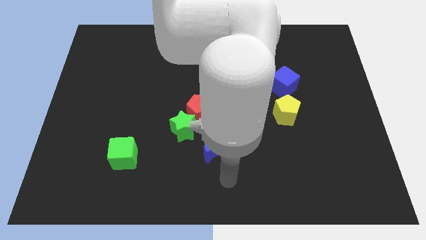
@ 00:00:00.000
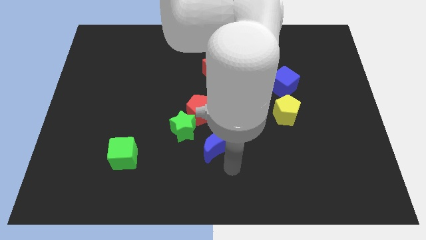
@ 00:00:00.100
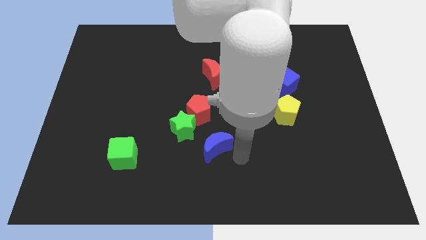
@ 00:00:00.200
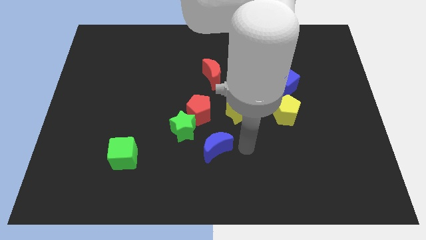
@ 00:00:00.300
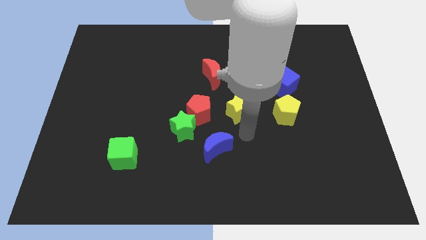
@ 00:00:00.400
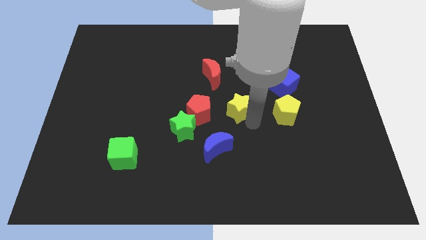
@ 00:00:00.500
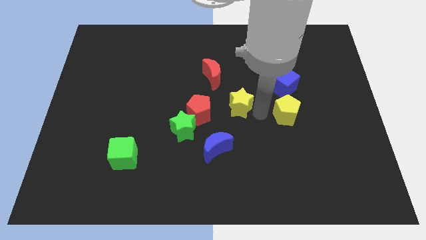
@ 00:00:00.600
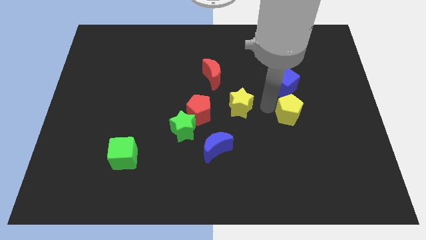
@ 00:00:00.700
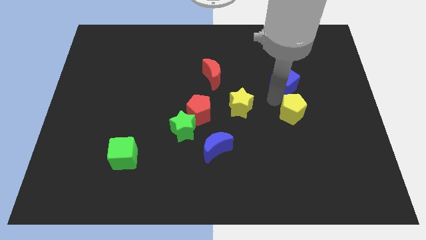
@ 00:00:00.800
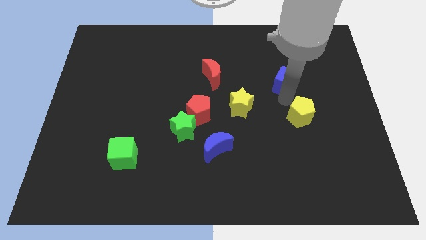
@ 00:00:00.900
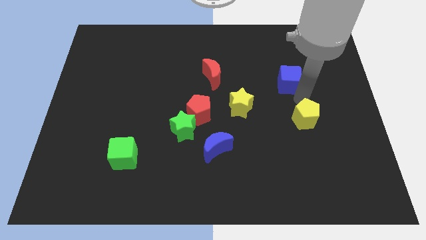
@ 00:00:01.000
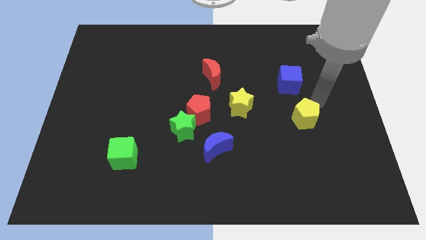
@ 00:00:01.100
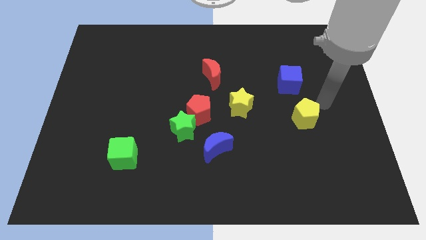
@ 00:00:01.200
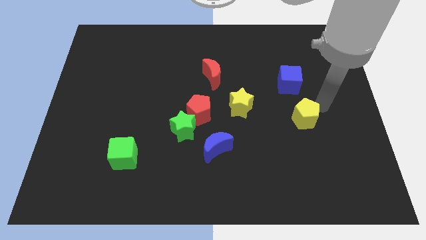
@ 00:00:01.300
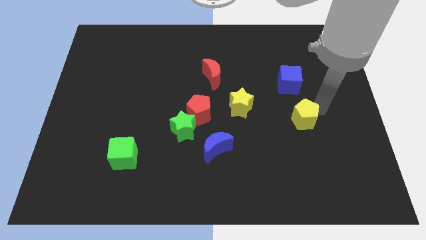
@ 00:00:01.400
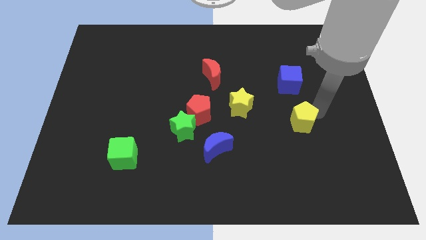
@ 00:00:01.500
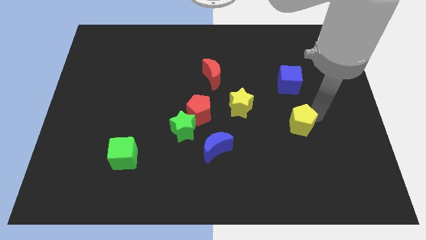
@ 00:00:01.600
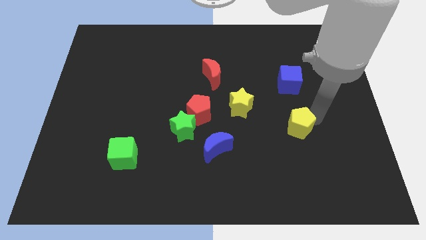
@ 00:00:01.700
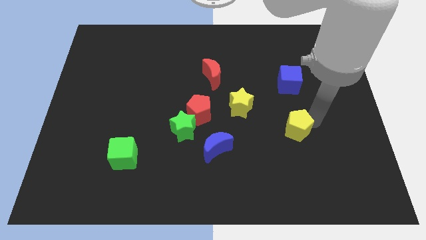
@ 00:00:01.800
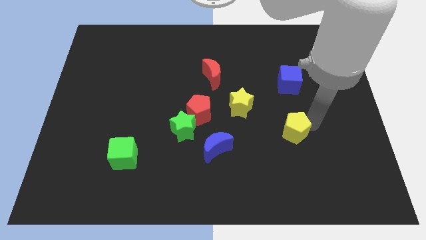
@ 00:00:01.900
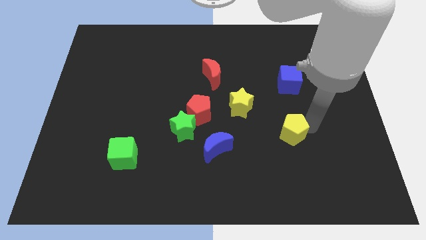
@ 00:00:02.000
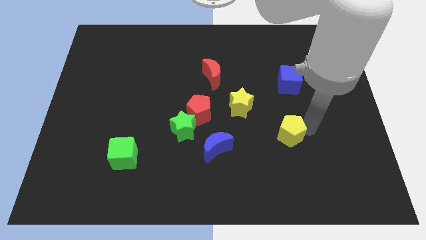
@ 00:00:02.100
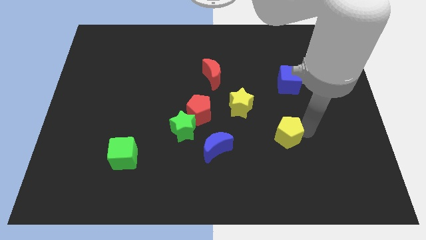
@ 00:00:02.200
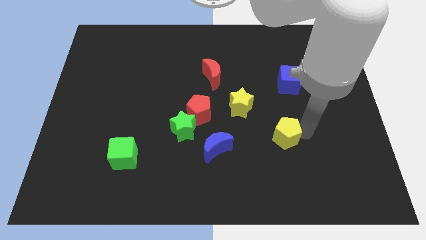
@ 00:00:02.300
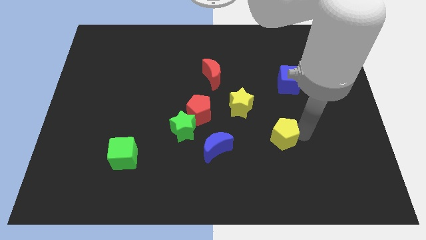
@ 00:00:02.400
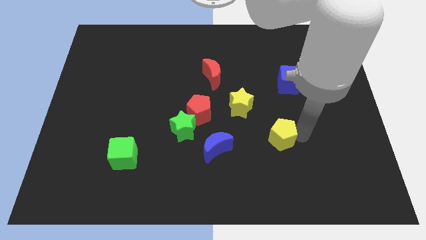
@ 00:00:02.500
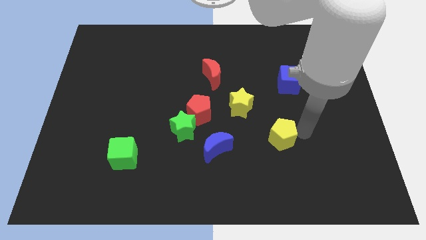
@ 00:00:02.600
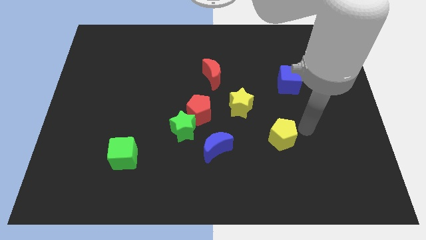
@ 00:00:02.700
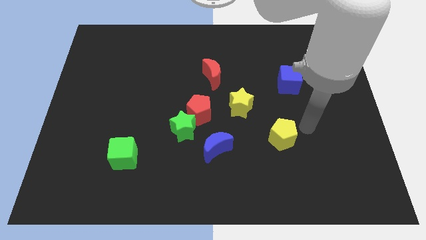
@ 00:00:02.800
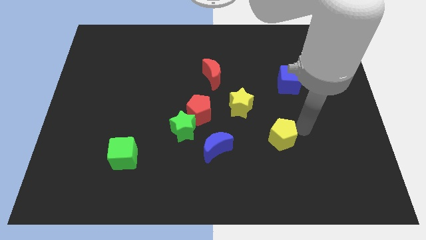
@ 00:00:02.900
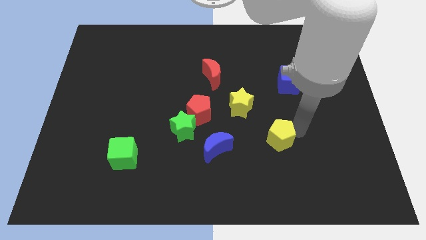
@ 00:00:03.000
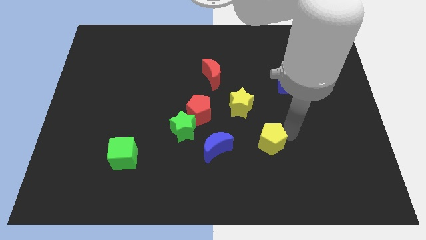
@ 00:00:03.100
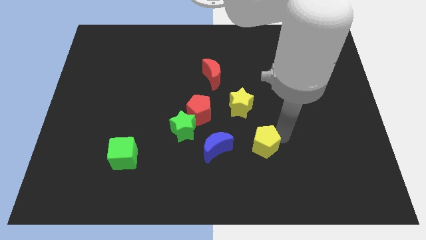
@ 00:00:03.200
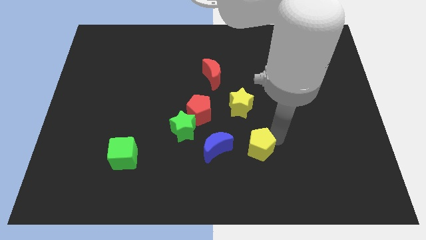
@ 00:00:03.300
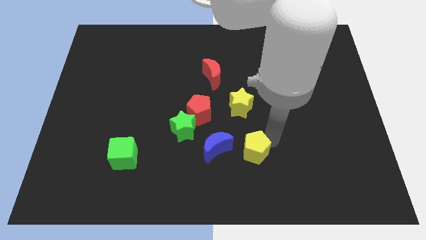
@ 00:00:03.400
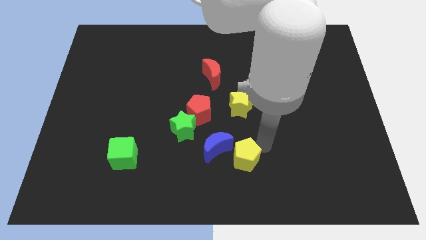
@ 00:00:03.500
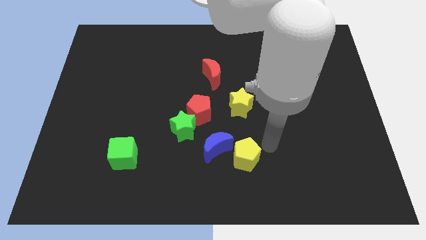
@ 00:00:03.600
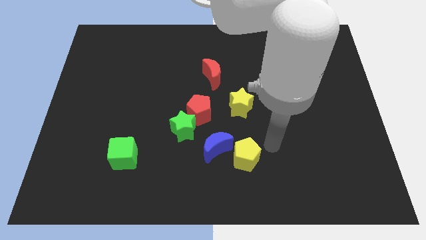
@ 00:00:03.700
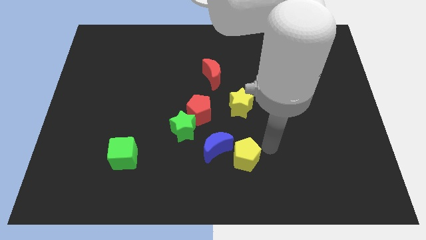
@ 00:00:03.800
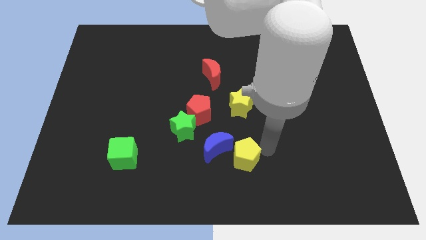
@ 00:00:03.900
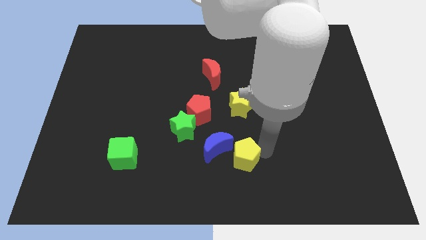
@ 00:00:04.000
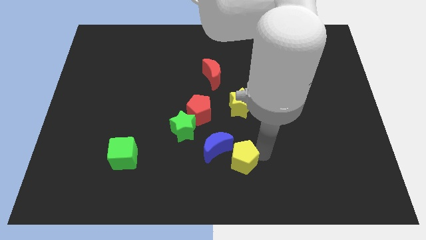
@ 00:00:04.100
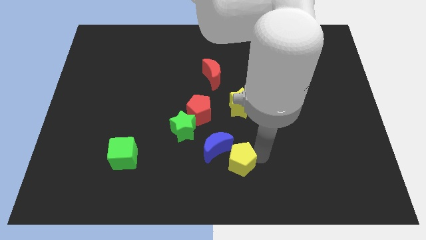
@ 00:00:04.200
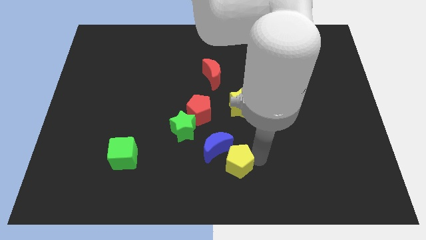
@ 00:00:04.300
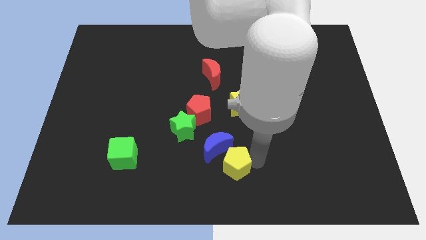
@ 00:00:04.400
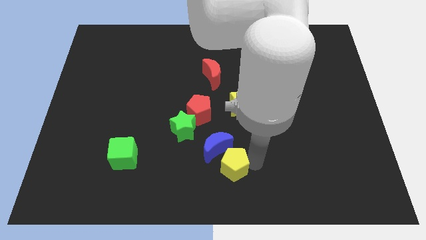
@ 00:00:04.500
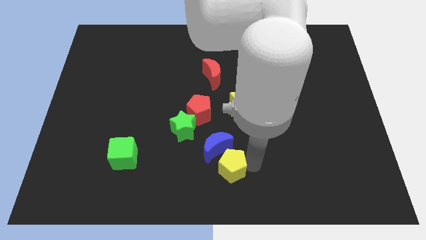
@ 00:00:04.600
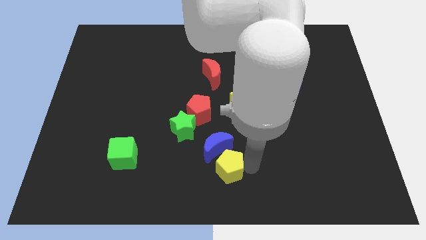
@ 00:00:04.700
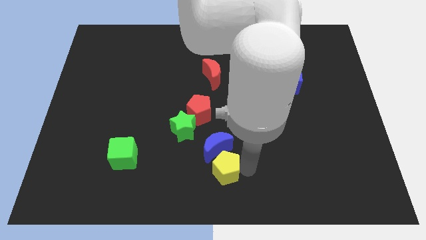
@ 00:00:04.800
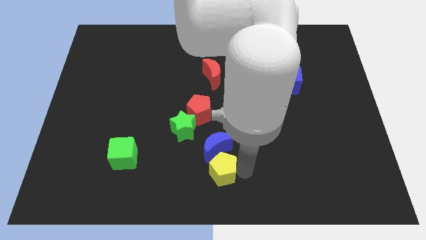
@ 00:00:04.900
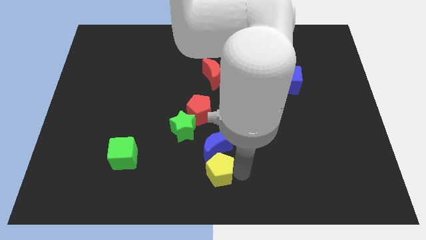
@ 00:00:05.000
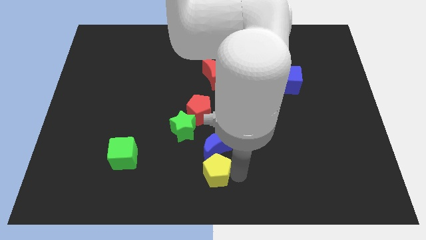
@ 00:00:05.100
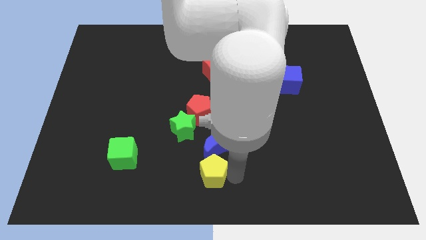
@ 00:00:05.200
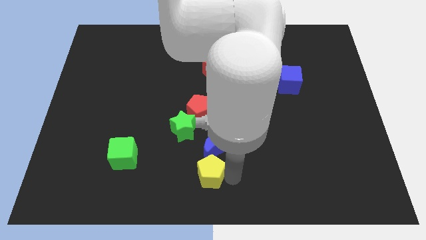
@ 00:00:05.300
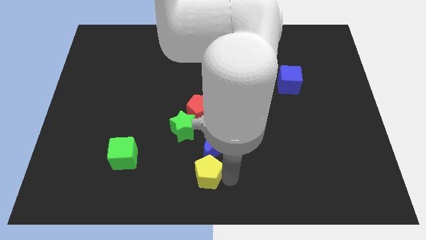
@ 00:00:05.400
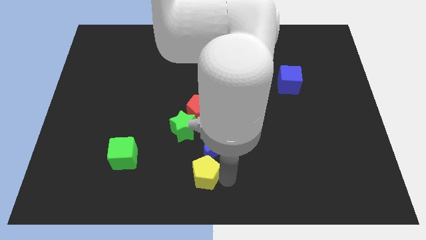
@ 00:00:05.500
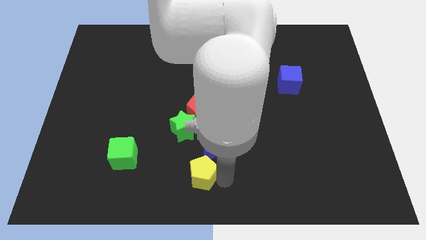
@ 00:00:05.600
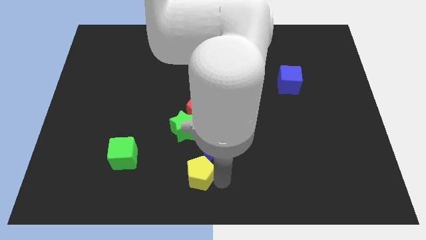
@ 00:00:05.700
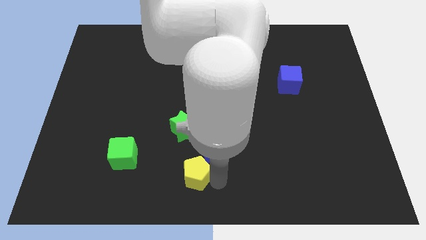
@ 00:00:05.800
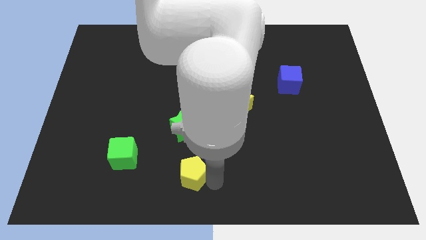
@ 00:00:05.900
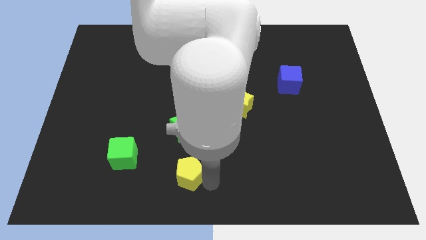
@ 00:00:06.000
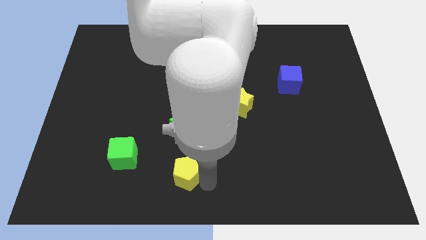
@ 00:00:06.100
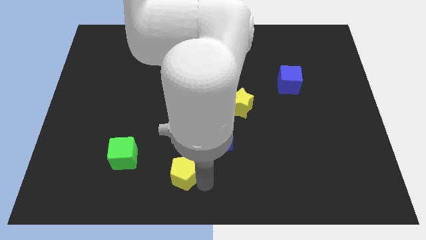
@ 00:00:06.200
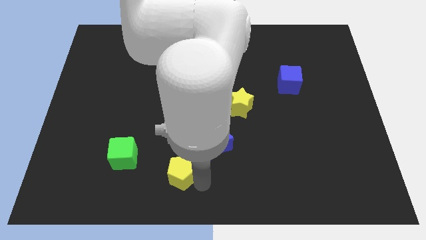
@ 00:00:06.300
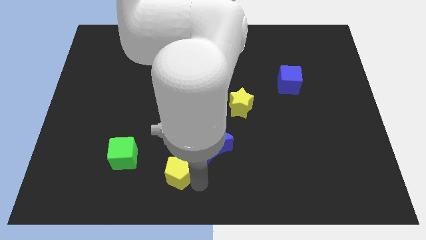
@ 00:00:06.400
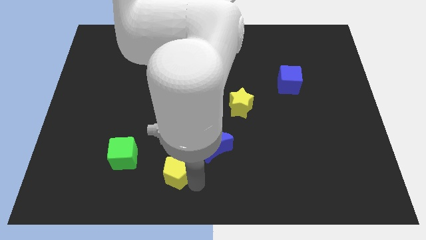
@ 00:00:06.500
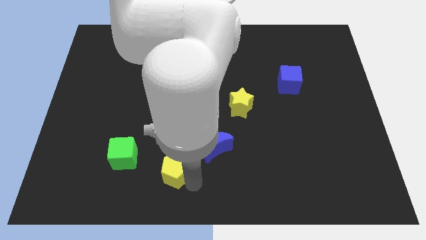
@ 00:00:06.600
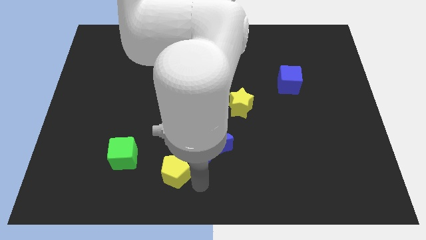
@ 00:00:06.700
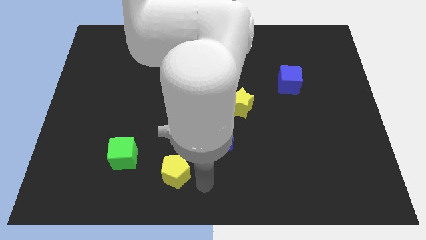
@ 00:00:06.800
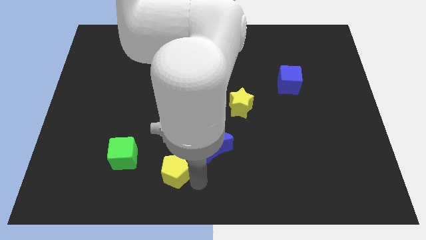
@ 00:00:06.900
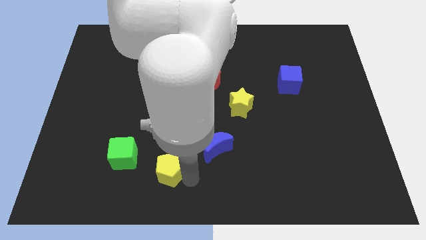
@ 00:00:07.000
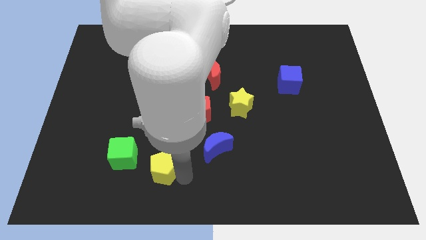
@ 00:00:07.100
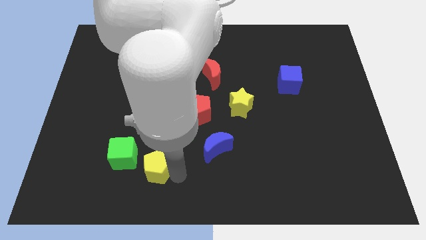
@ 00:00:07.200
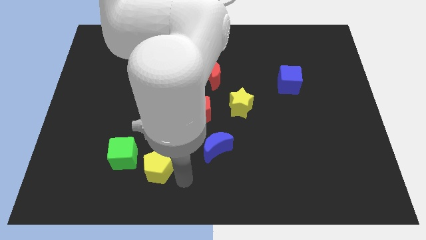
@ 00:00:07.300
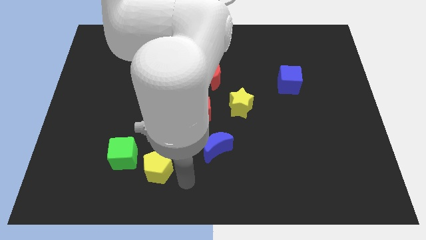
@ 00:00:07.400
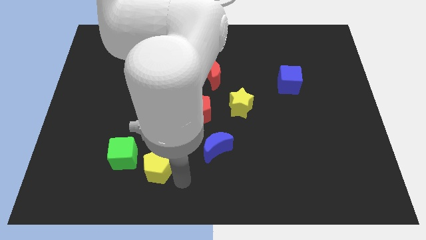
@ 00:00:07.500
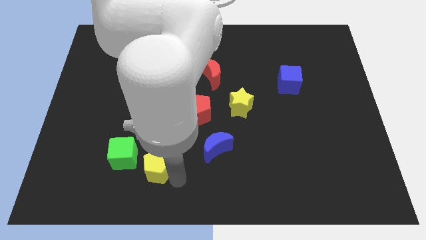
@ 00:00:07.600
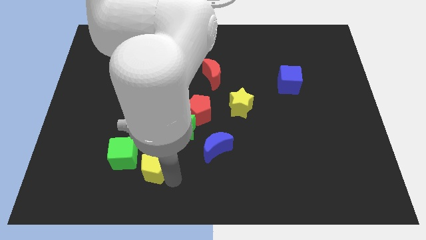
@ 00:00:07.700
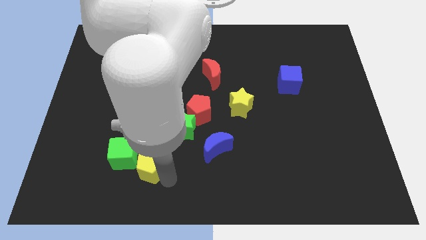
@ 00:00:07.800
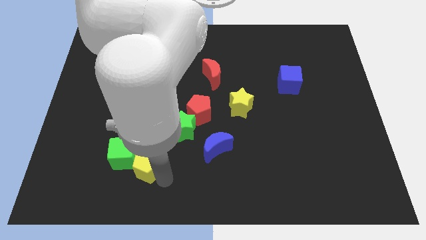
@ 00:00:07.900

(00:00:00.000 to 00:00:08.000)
slide the yellow pentagon next to the green cube
